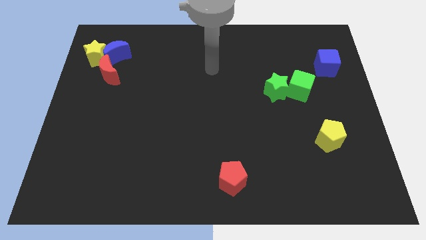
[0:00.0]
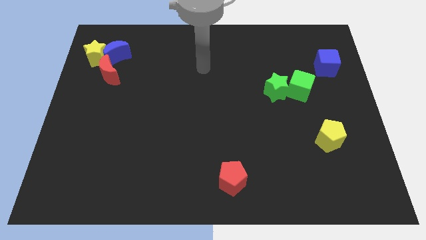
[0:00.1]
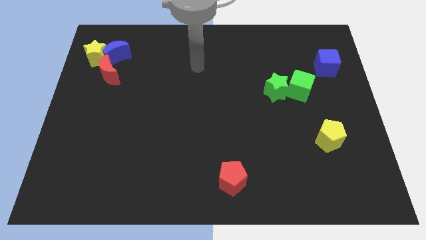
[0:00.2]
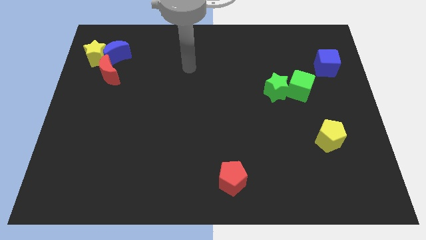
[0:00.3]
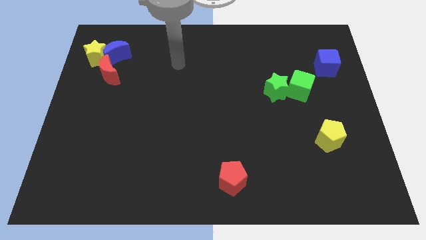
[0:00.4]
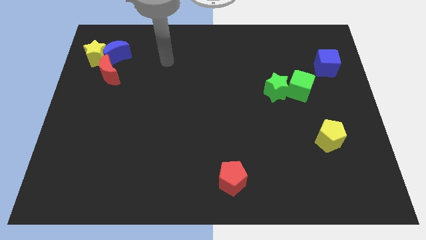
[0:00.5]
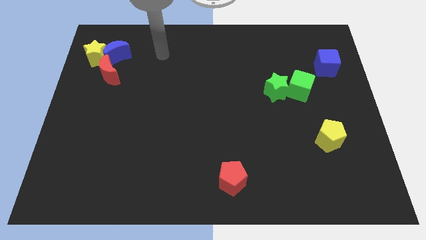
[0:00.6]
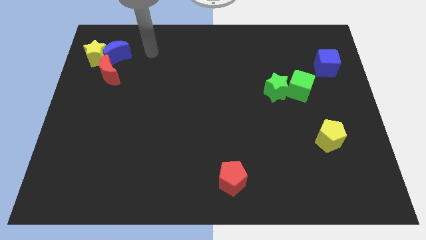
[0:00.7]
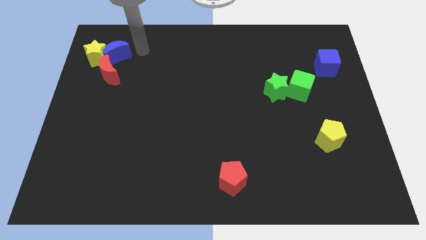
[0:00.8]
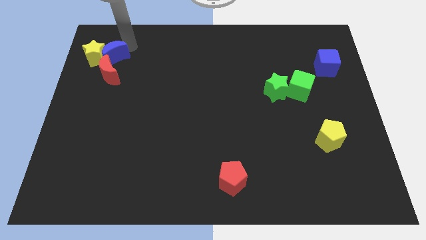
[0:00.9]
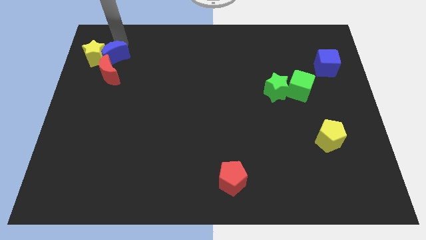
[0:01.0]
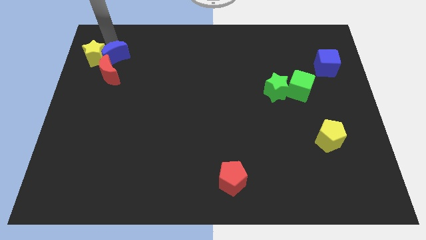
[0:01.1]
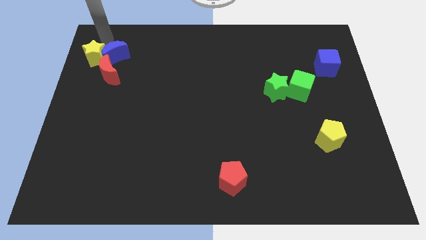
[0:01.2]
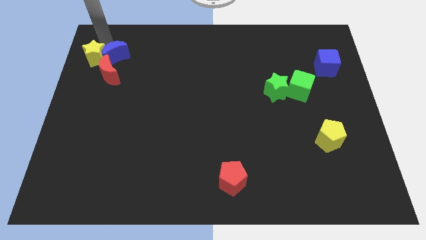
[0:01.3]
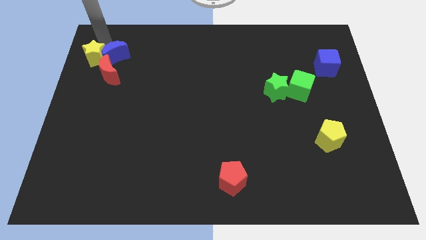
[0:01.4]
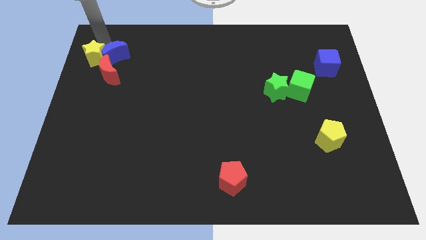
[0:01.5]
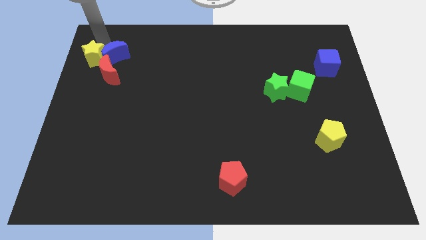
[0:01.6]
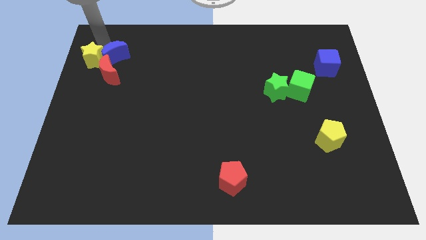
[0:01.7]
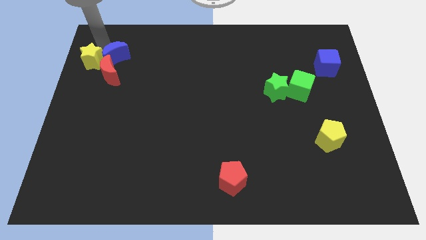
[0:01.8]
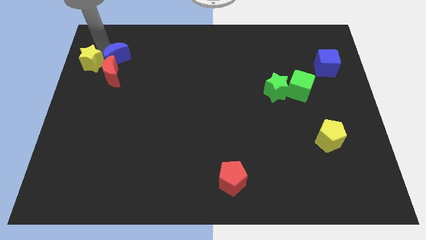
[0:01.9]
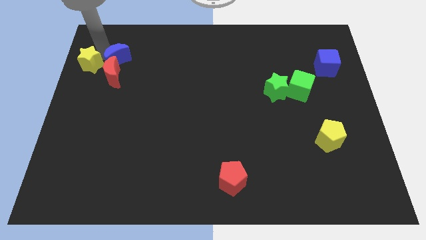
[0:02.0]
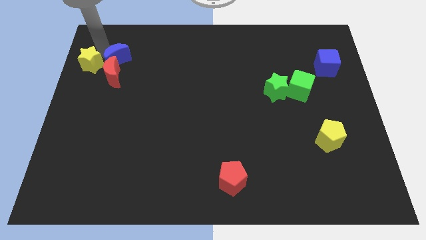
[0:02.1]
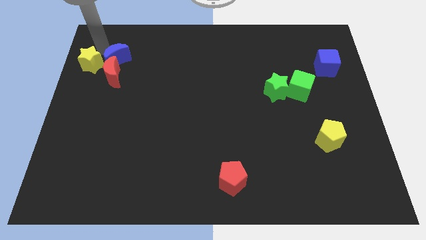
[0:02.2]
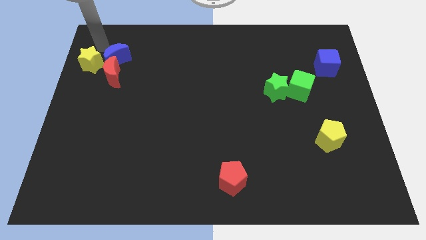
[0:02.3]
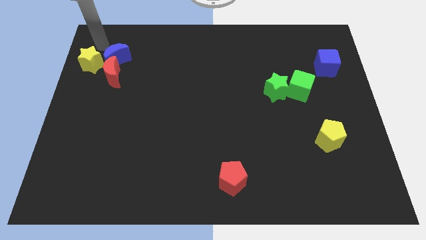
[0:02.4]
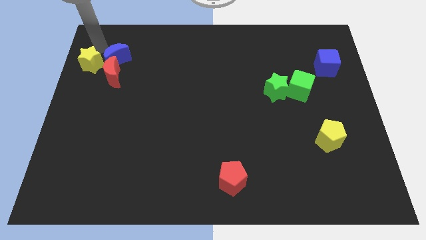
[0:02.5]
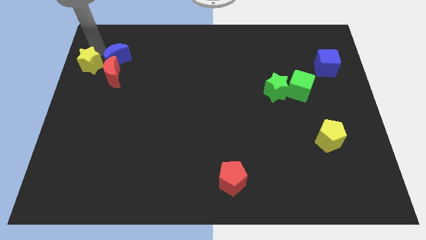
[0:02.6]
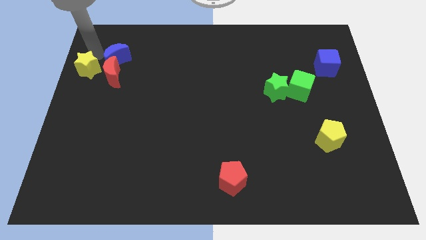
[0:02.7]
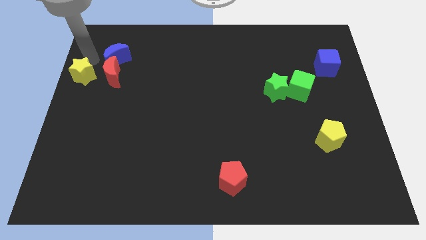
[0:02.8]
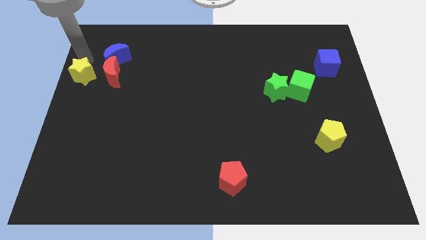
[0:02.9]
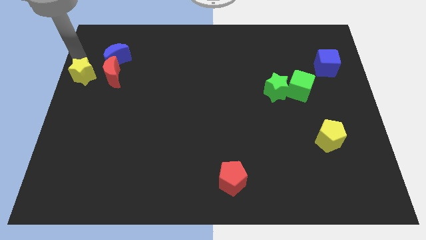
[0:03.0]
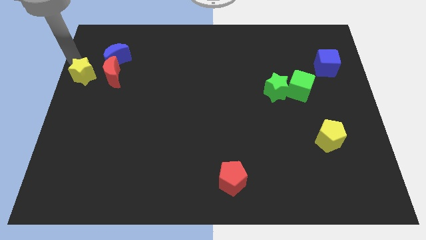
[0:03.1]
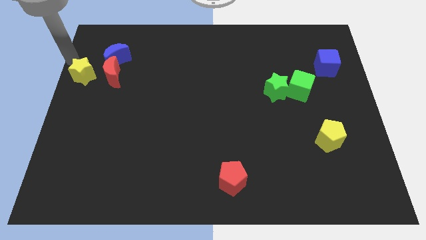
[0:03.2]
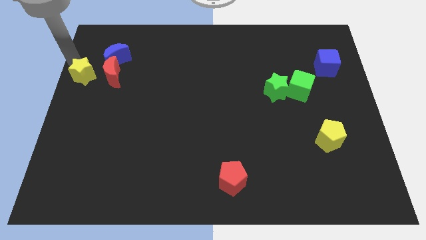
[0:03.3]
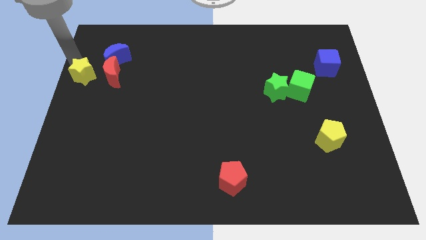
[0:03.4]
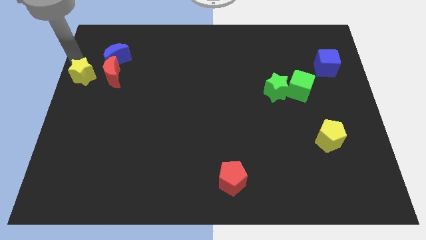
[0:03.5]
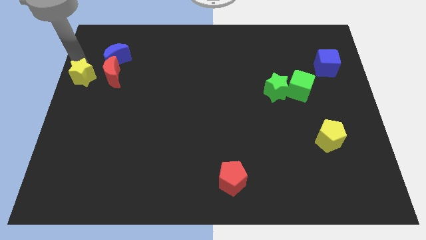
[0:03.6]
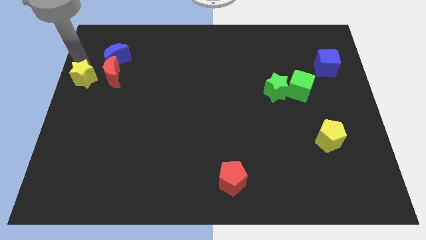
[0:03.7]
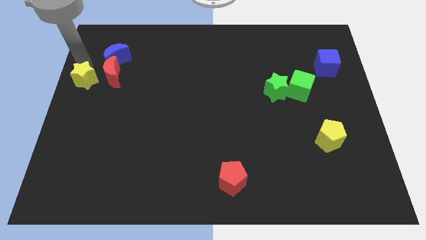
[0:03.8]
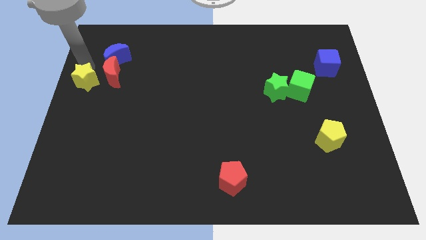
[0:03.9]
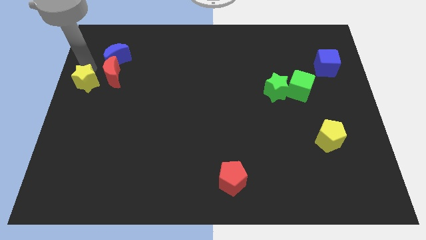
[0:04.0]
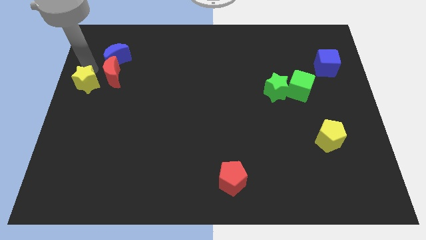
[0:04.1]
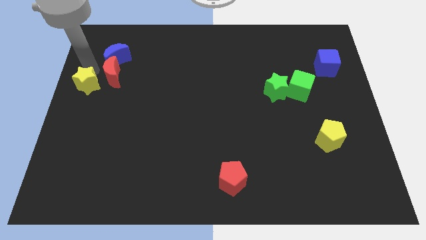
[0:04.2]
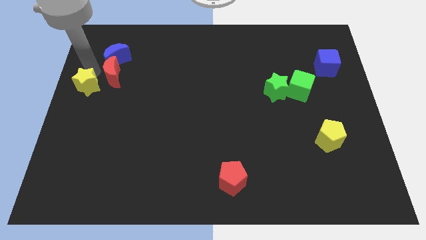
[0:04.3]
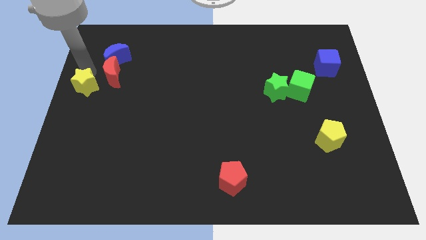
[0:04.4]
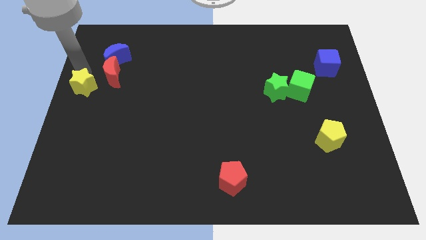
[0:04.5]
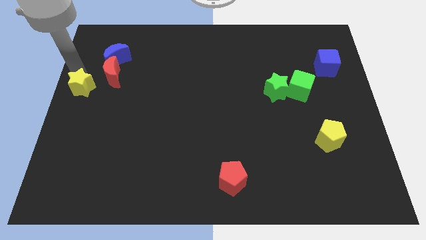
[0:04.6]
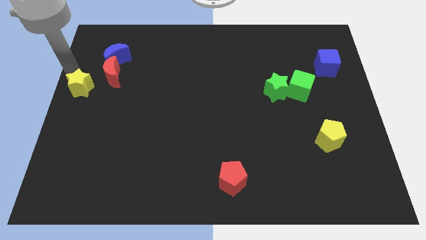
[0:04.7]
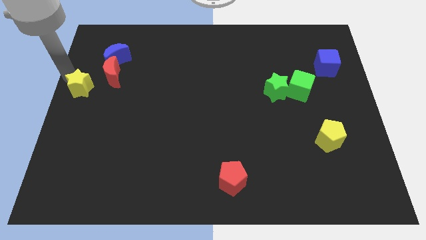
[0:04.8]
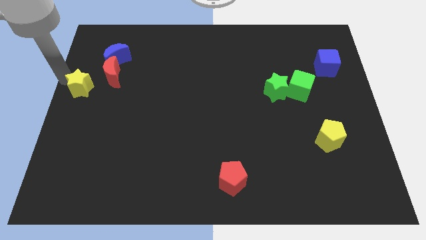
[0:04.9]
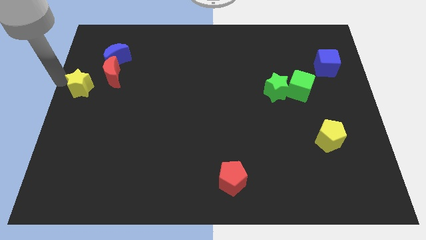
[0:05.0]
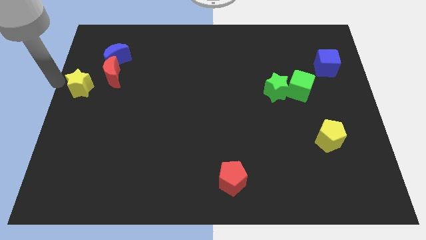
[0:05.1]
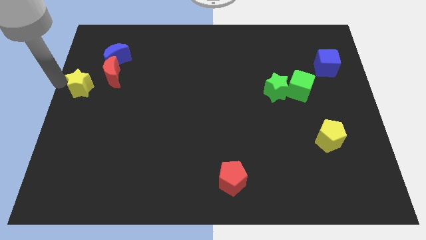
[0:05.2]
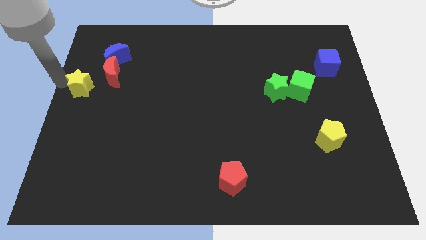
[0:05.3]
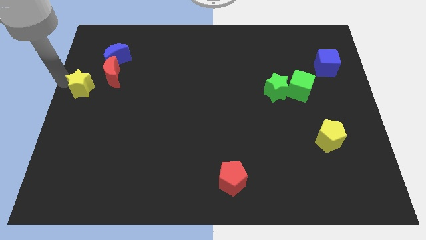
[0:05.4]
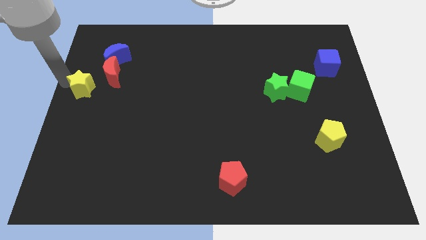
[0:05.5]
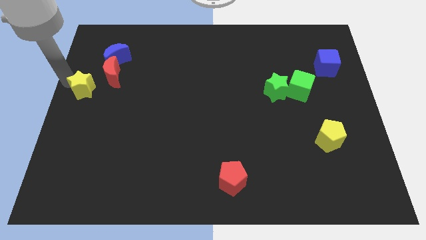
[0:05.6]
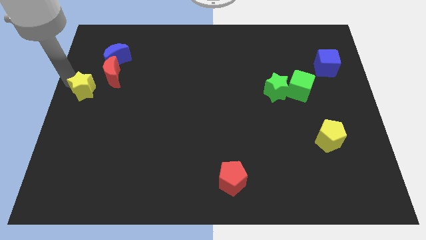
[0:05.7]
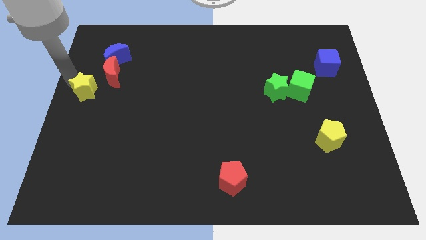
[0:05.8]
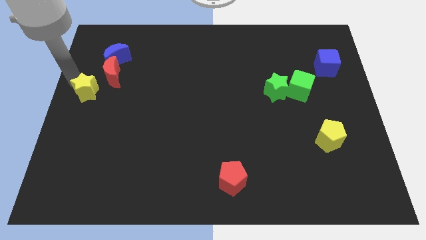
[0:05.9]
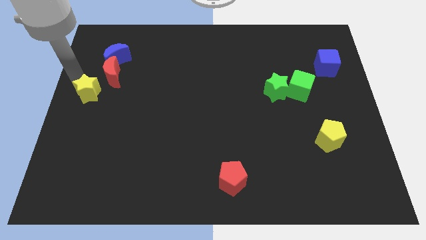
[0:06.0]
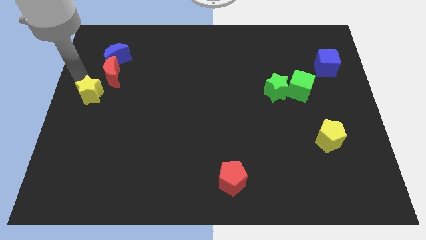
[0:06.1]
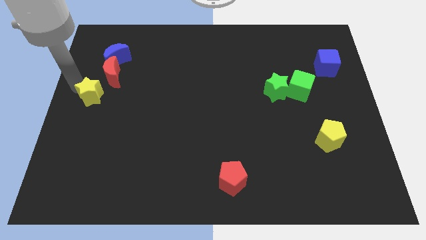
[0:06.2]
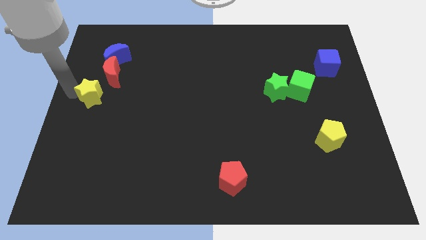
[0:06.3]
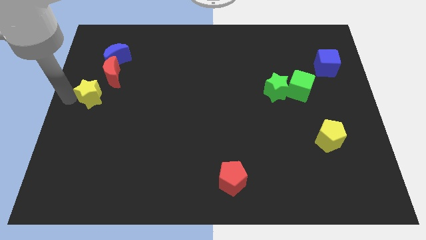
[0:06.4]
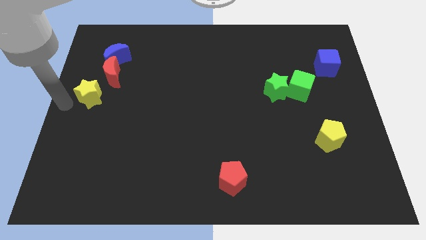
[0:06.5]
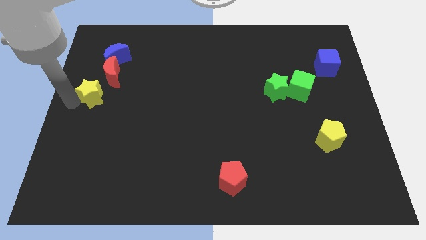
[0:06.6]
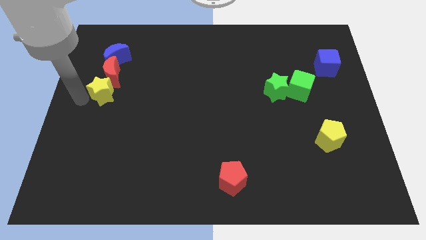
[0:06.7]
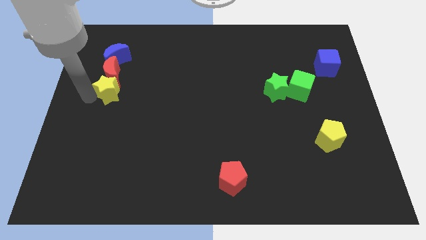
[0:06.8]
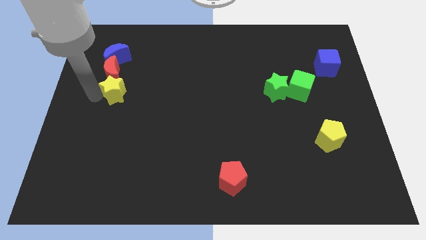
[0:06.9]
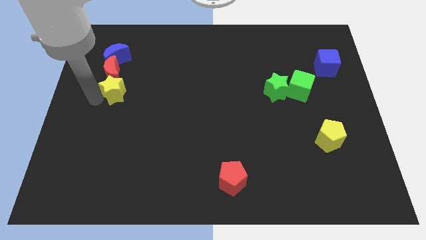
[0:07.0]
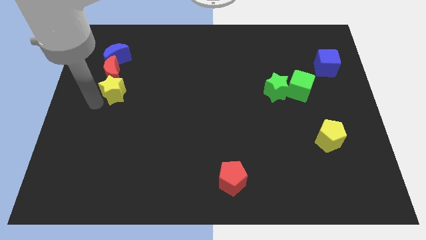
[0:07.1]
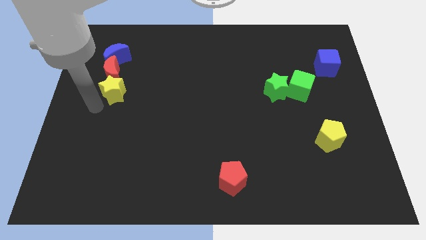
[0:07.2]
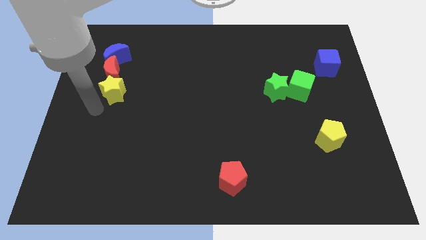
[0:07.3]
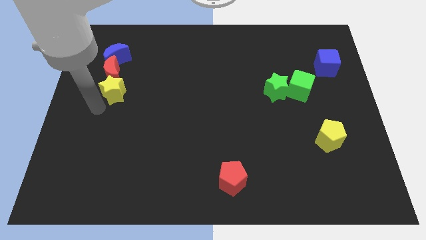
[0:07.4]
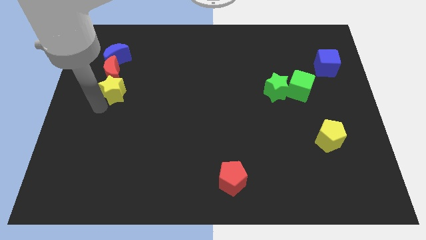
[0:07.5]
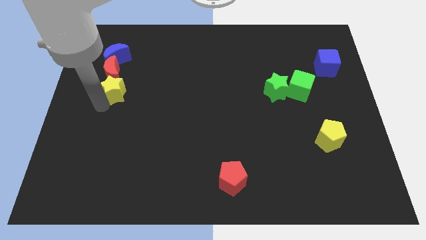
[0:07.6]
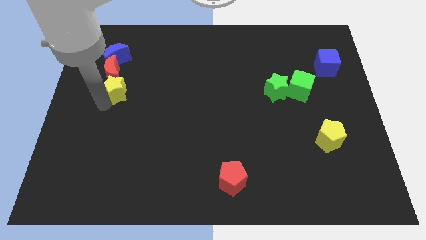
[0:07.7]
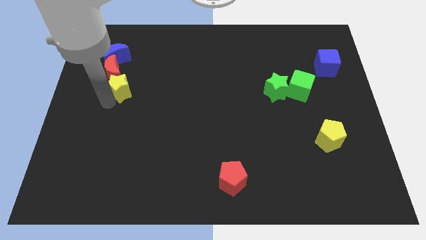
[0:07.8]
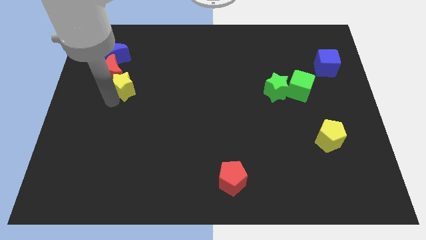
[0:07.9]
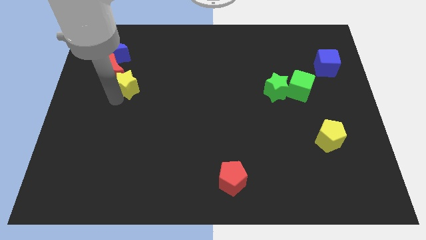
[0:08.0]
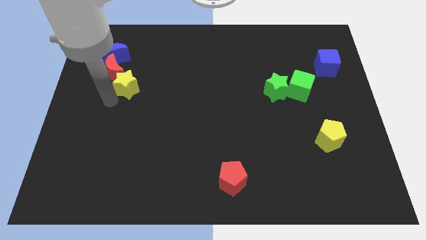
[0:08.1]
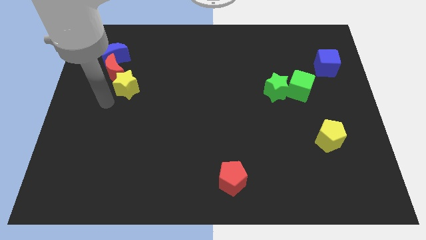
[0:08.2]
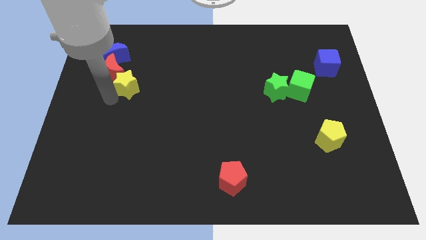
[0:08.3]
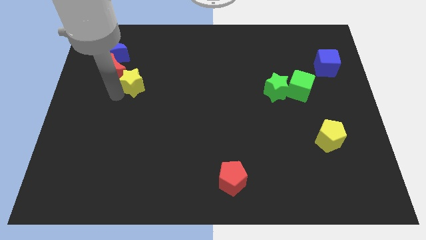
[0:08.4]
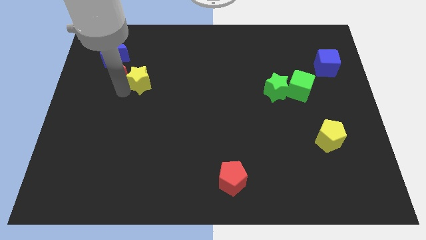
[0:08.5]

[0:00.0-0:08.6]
move the yellow star a little right
